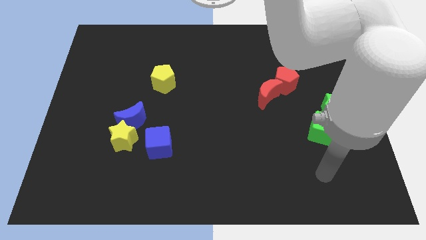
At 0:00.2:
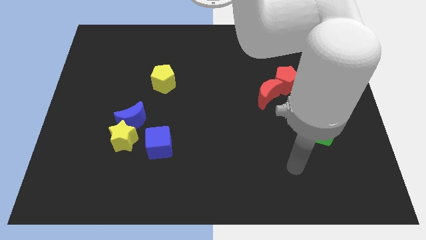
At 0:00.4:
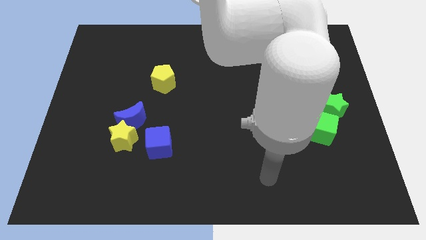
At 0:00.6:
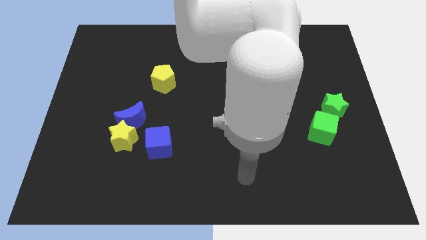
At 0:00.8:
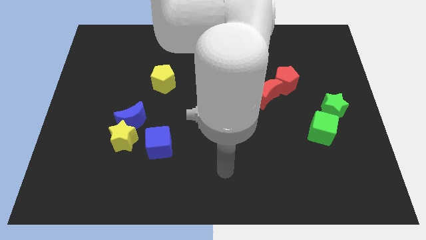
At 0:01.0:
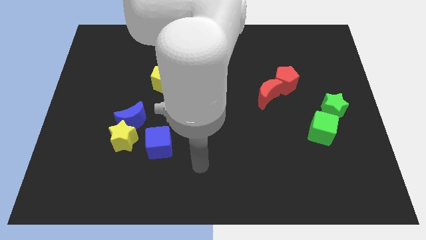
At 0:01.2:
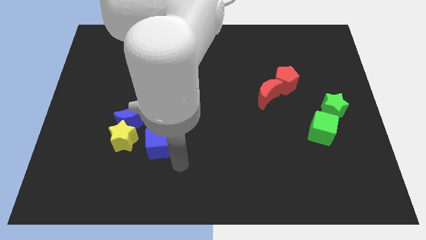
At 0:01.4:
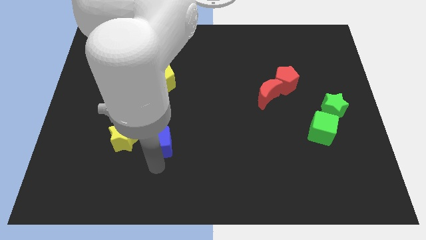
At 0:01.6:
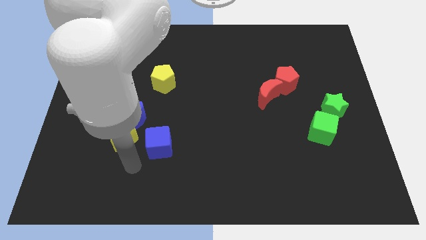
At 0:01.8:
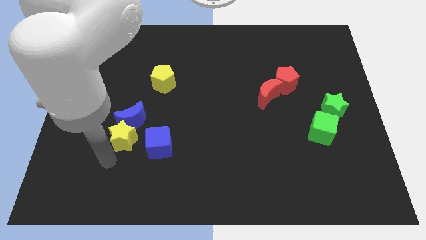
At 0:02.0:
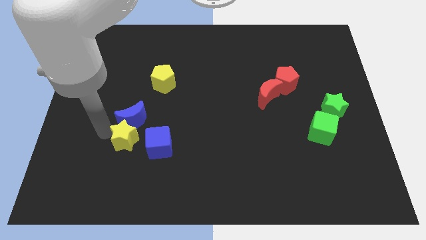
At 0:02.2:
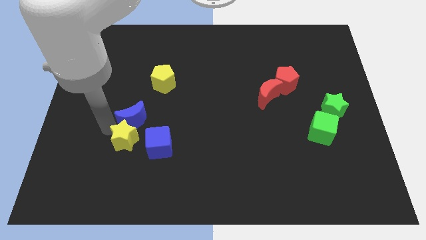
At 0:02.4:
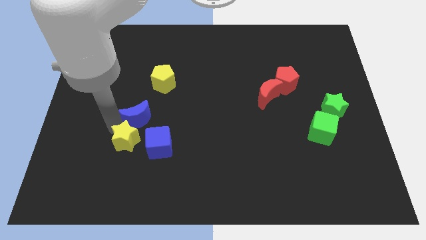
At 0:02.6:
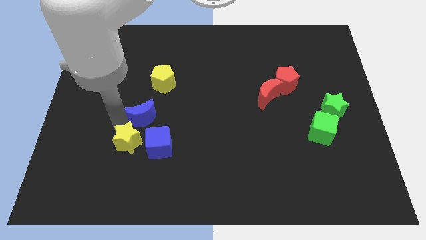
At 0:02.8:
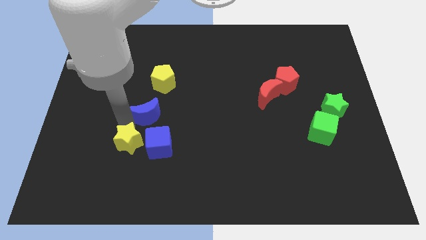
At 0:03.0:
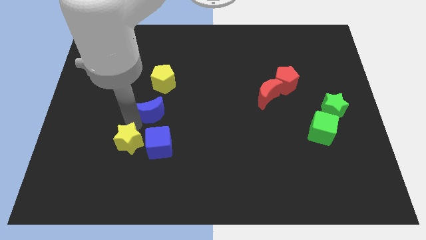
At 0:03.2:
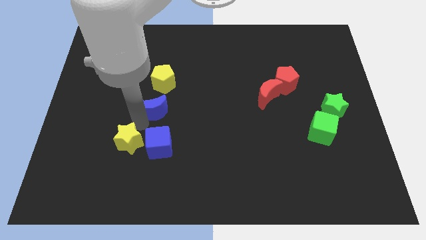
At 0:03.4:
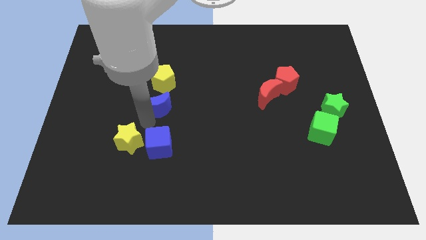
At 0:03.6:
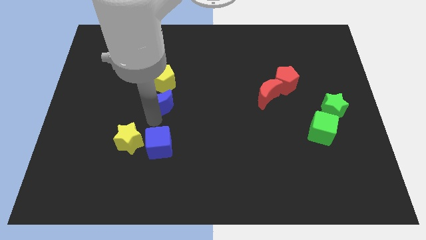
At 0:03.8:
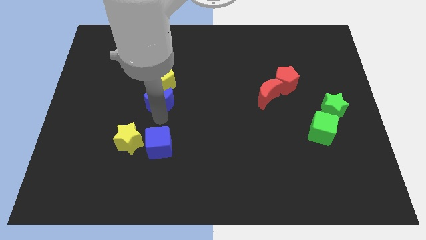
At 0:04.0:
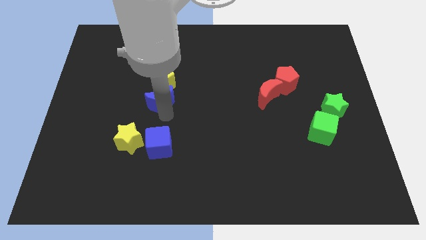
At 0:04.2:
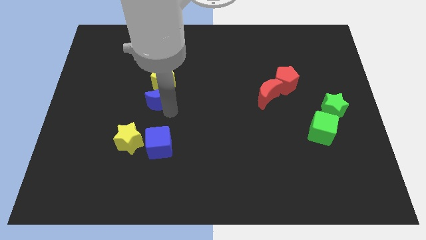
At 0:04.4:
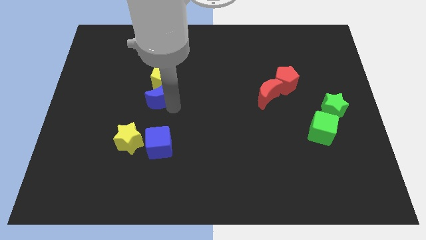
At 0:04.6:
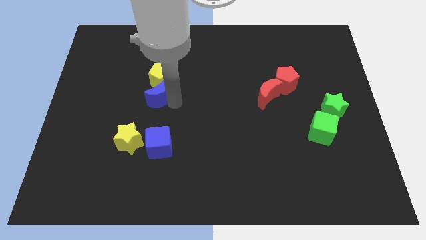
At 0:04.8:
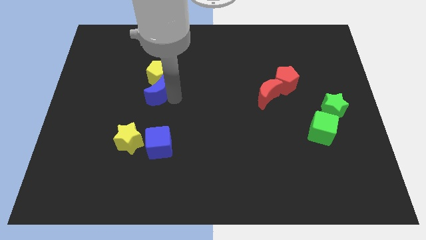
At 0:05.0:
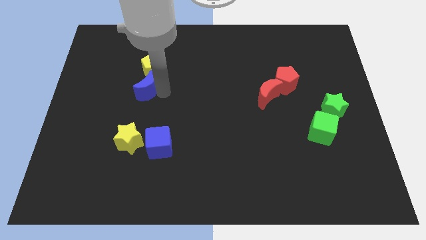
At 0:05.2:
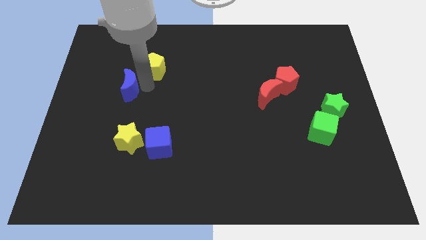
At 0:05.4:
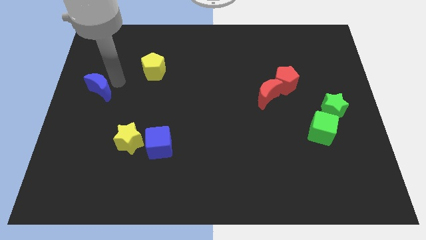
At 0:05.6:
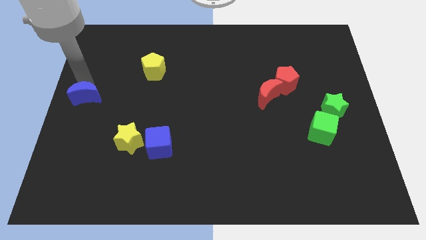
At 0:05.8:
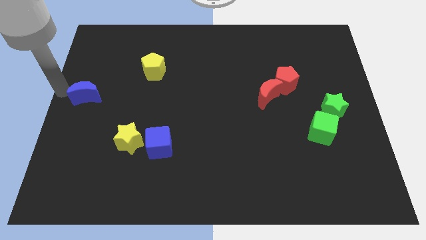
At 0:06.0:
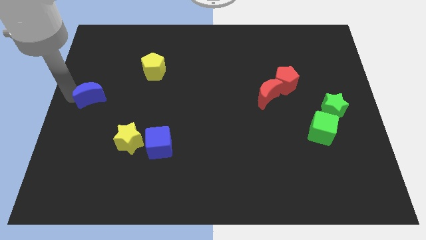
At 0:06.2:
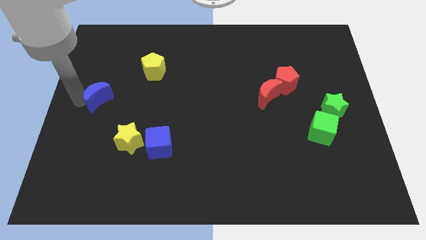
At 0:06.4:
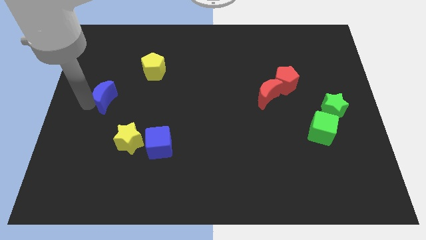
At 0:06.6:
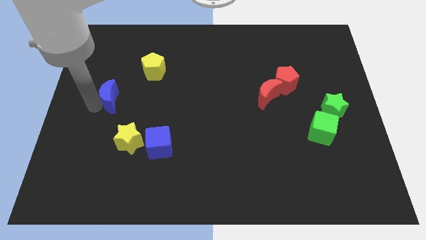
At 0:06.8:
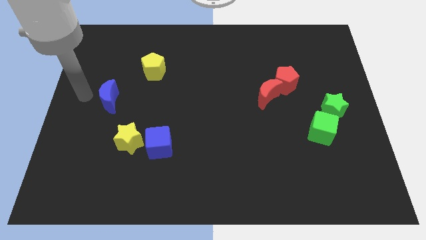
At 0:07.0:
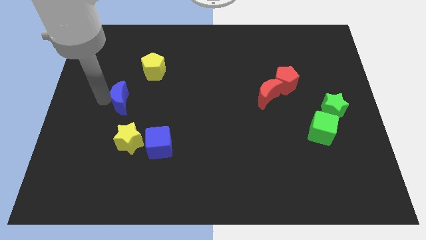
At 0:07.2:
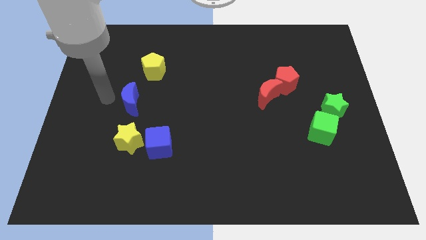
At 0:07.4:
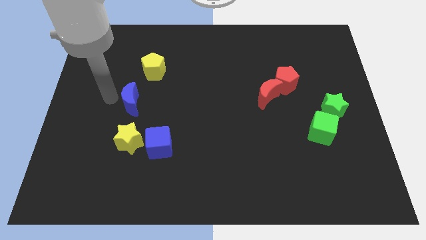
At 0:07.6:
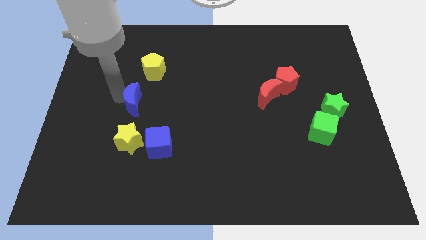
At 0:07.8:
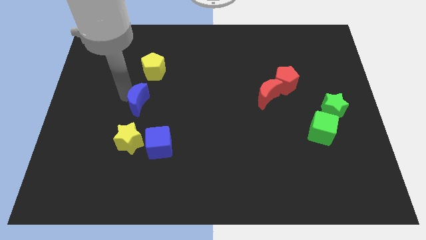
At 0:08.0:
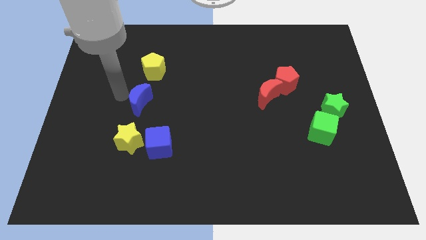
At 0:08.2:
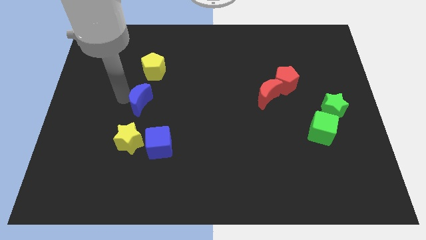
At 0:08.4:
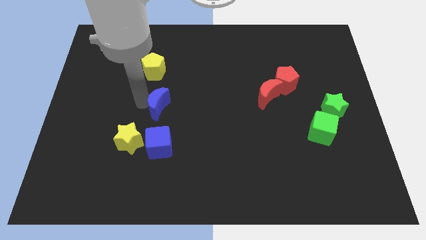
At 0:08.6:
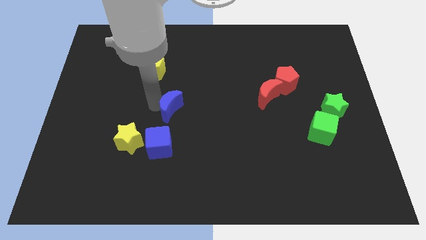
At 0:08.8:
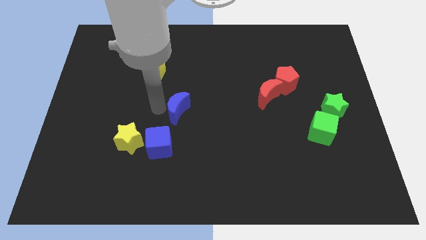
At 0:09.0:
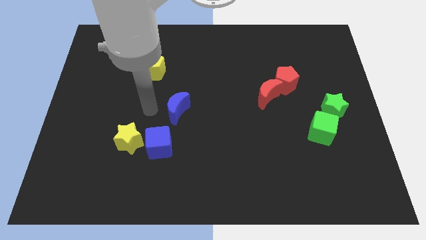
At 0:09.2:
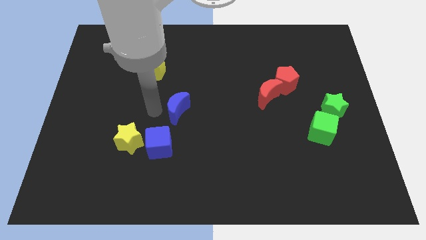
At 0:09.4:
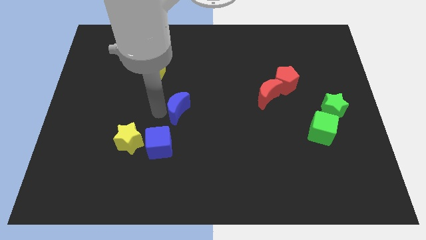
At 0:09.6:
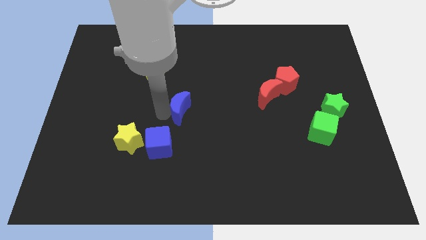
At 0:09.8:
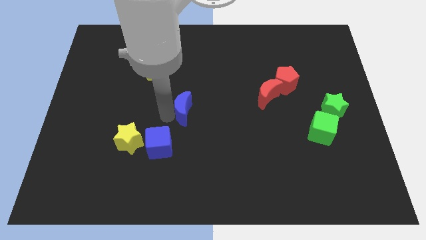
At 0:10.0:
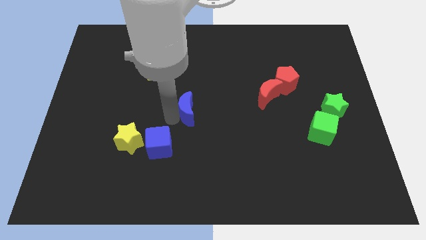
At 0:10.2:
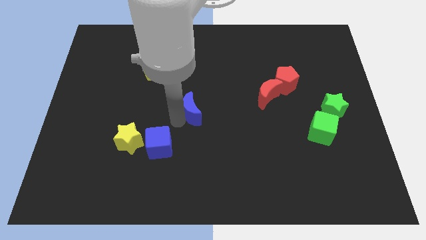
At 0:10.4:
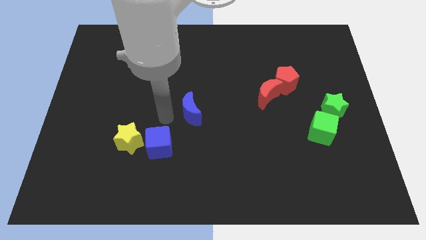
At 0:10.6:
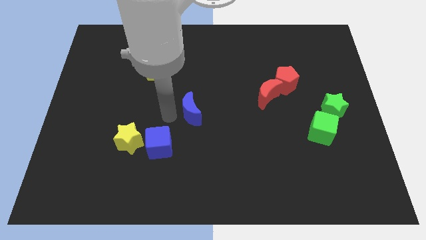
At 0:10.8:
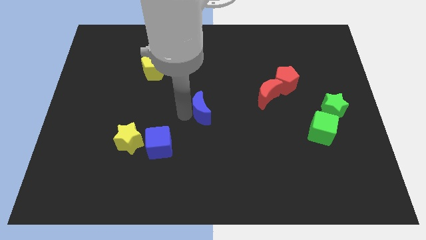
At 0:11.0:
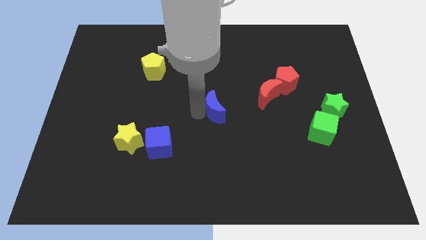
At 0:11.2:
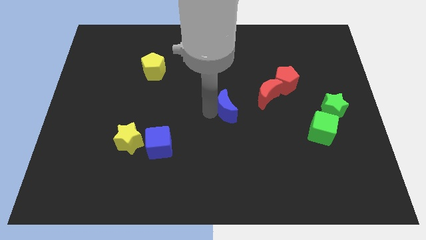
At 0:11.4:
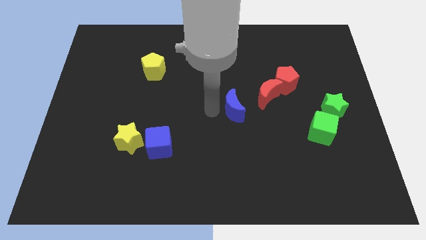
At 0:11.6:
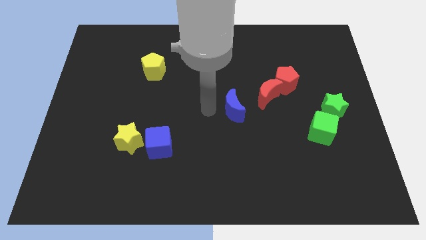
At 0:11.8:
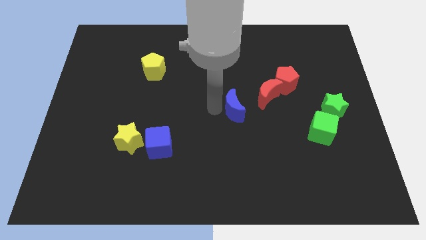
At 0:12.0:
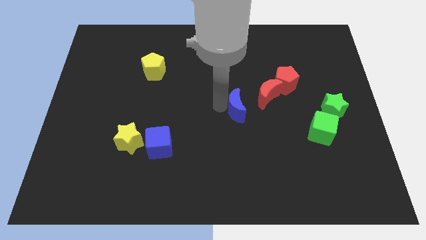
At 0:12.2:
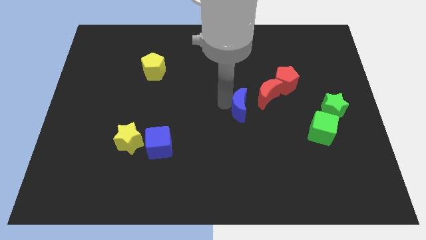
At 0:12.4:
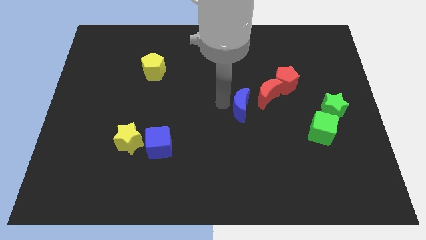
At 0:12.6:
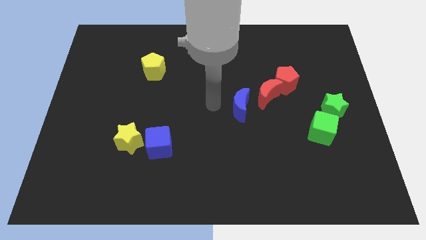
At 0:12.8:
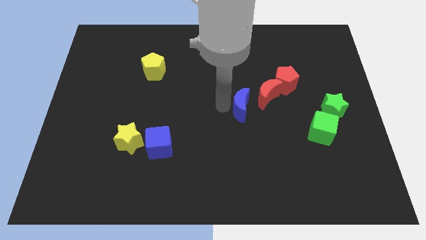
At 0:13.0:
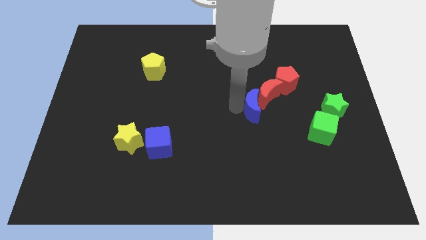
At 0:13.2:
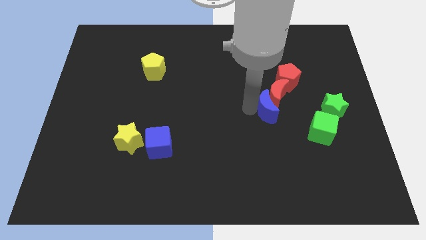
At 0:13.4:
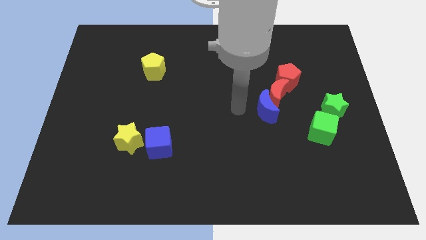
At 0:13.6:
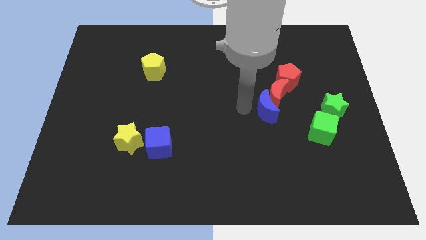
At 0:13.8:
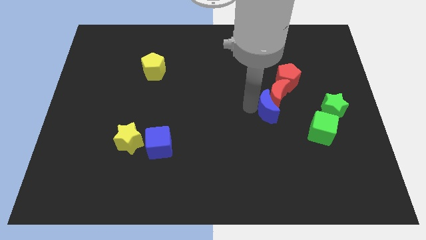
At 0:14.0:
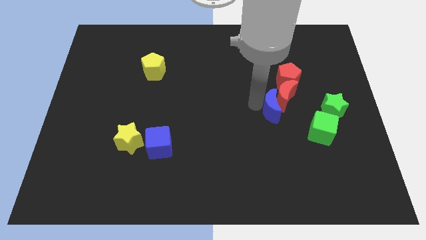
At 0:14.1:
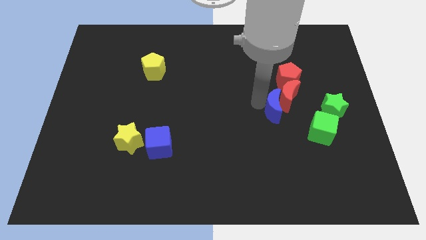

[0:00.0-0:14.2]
move the blue moon to the top left side of the green cube

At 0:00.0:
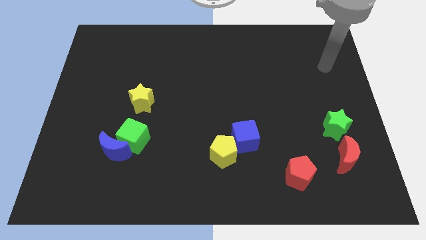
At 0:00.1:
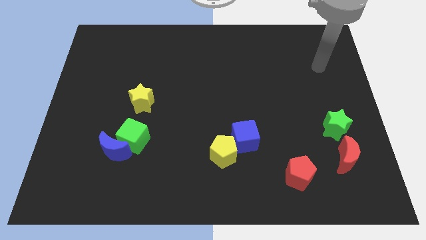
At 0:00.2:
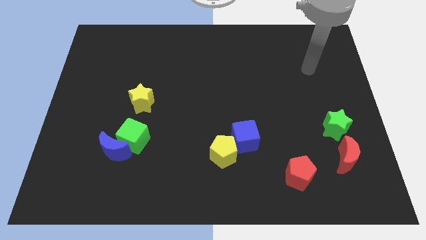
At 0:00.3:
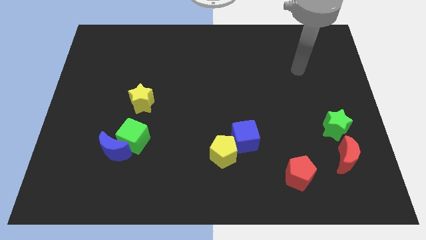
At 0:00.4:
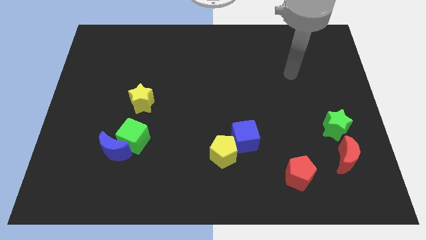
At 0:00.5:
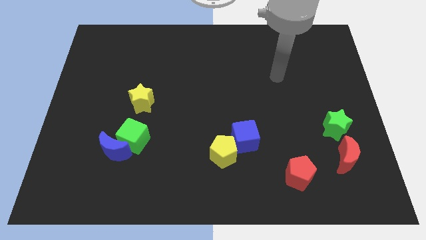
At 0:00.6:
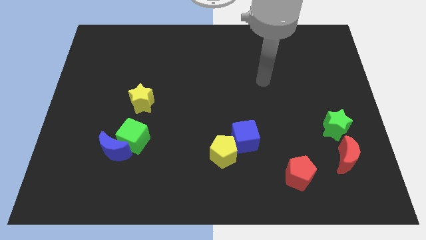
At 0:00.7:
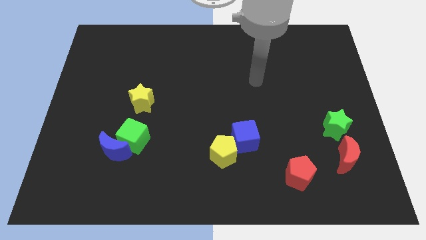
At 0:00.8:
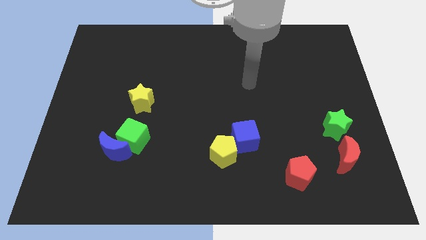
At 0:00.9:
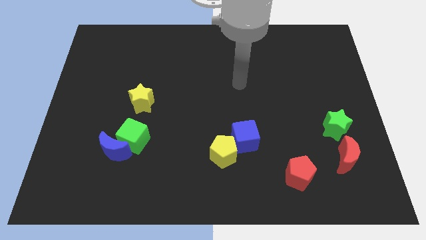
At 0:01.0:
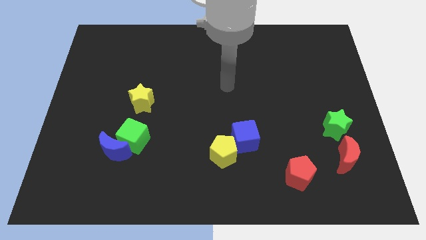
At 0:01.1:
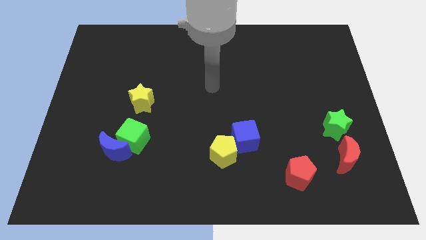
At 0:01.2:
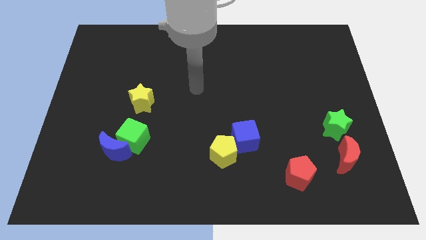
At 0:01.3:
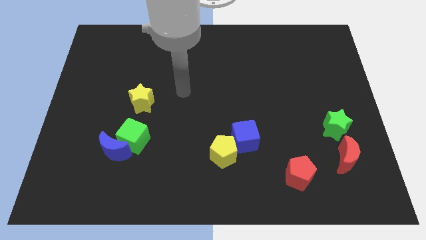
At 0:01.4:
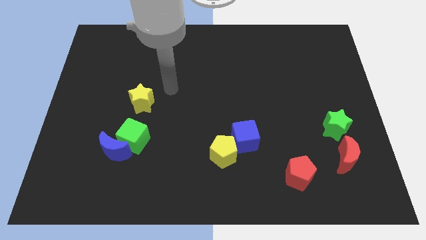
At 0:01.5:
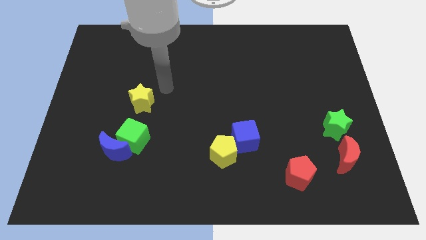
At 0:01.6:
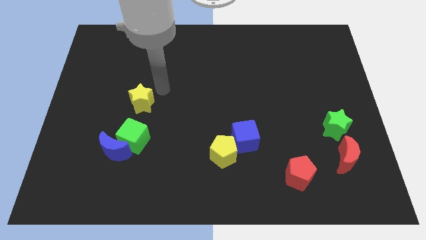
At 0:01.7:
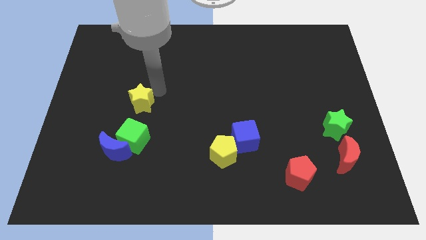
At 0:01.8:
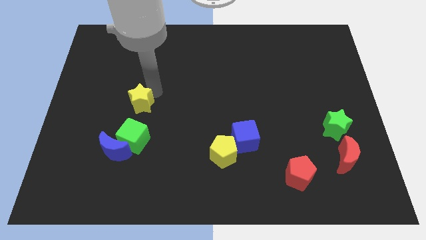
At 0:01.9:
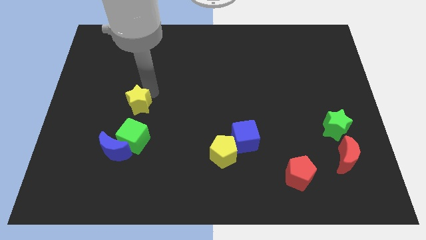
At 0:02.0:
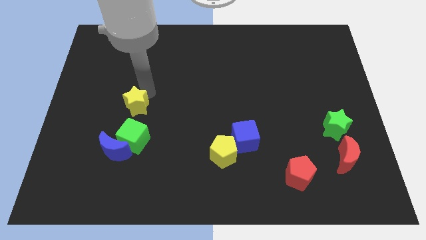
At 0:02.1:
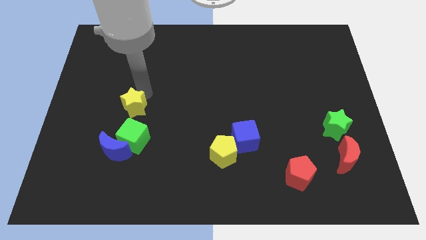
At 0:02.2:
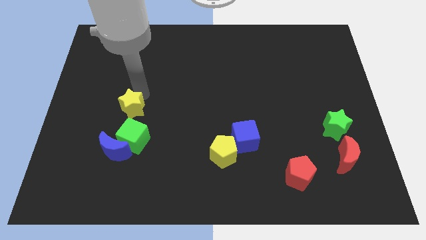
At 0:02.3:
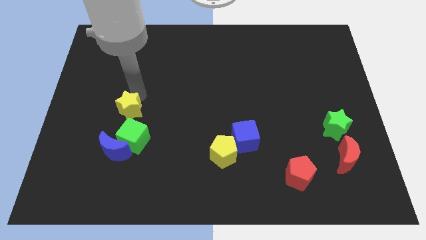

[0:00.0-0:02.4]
slide the yellow star diagonally up and to the left of the green cube
